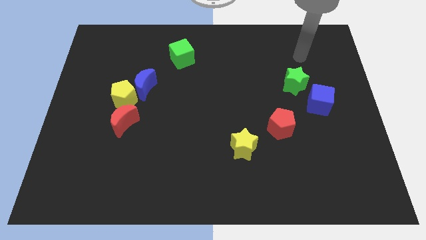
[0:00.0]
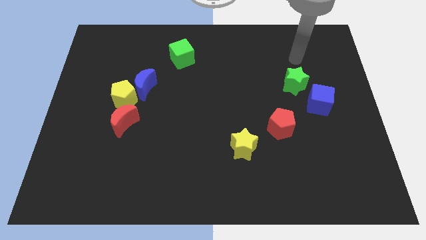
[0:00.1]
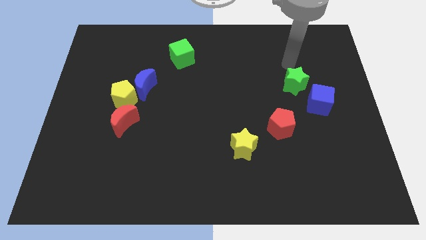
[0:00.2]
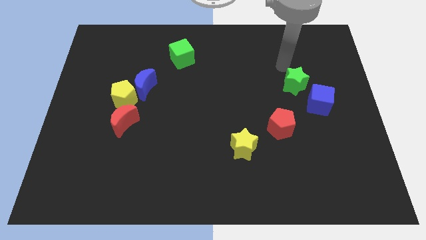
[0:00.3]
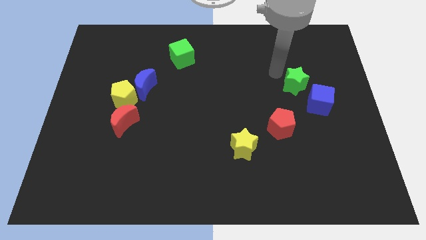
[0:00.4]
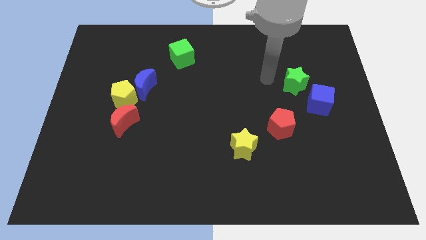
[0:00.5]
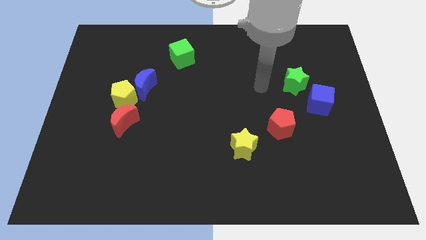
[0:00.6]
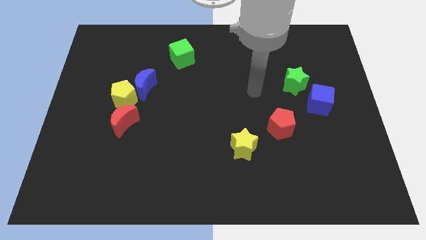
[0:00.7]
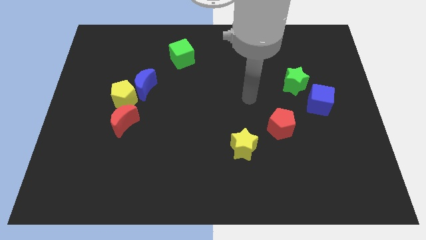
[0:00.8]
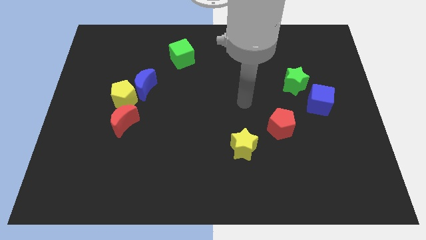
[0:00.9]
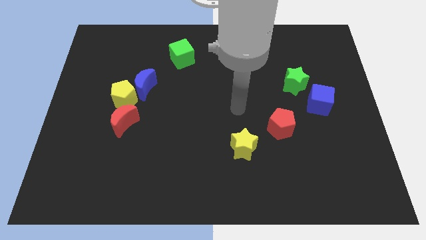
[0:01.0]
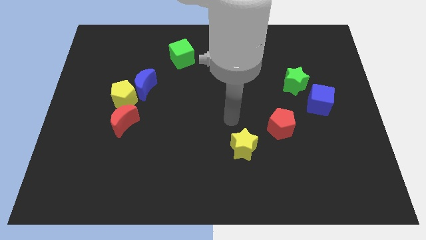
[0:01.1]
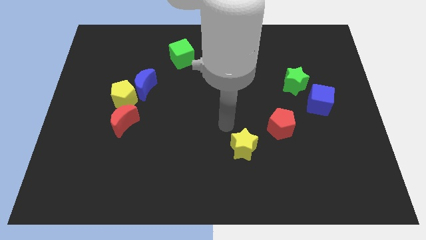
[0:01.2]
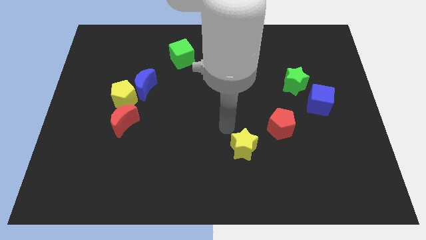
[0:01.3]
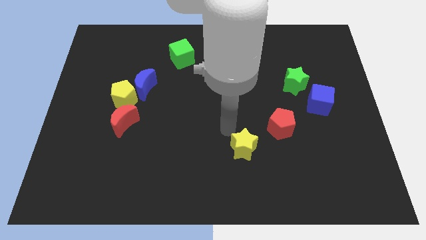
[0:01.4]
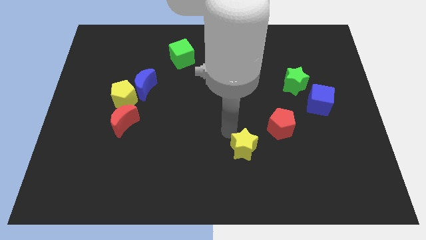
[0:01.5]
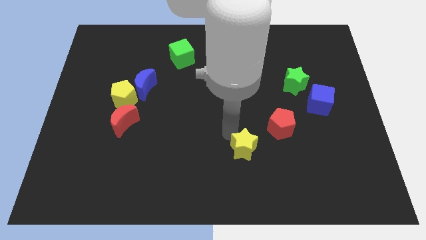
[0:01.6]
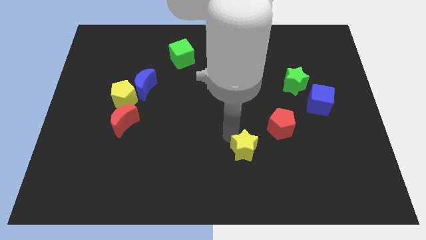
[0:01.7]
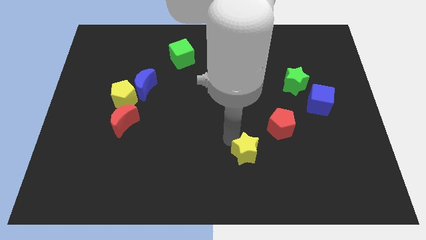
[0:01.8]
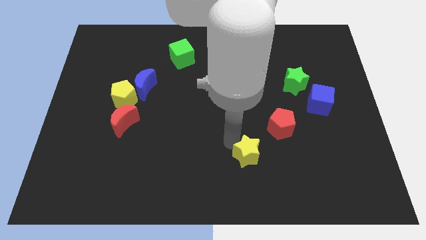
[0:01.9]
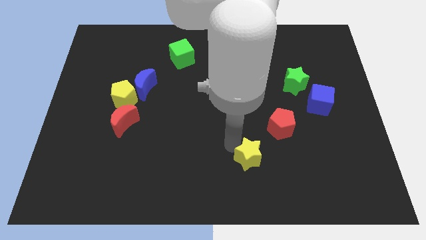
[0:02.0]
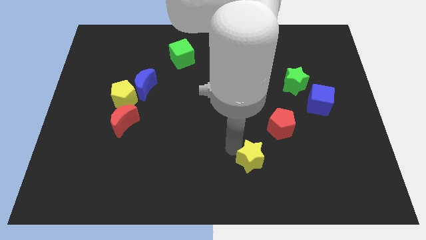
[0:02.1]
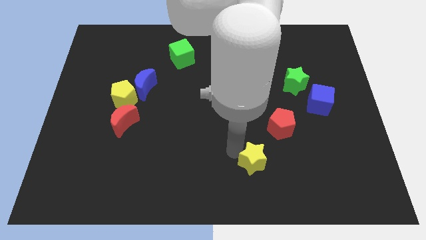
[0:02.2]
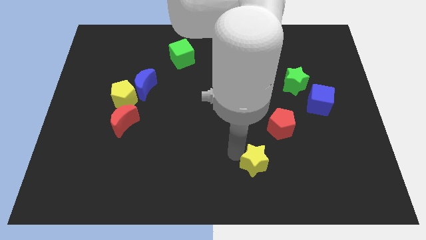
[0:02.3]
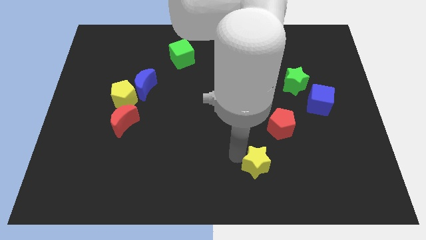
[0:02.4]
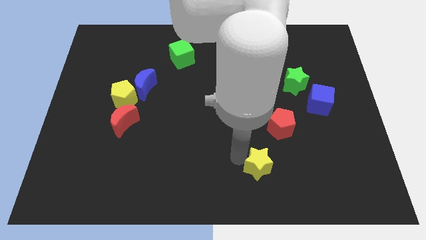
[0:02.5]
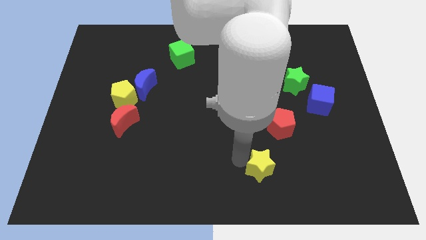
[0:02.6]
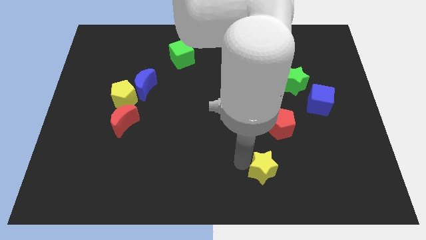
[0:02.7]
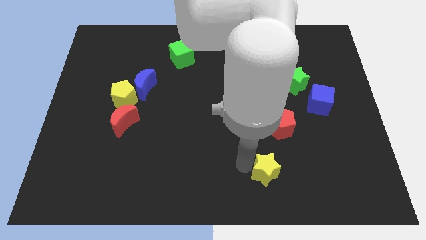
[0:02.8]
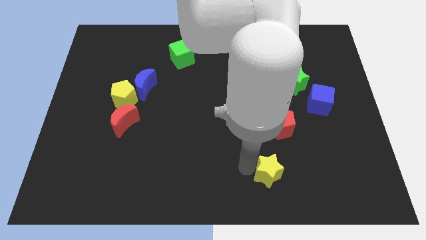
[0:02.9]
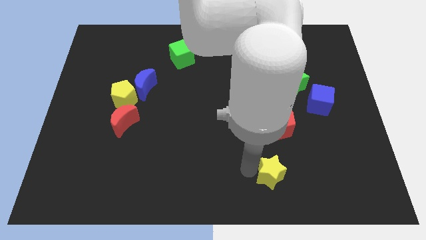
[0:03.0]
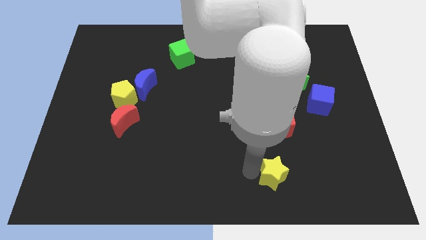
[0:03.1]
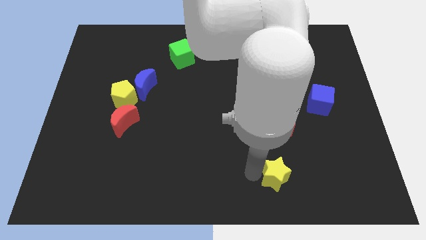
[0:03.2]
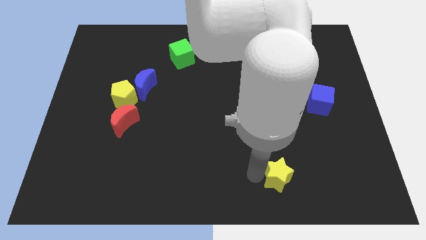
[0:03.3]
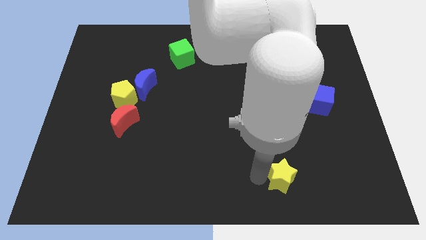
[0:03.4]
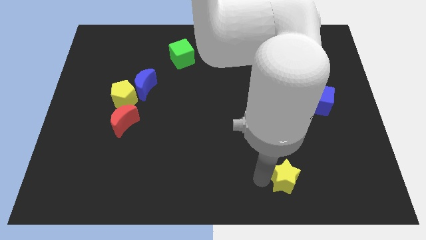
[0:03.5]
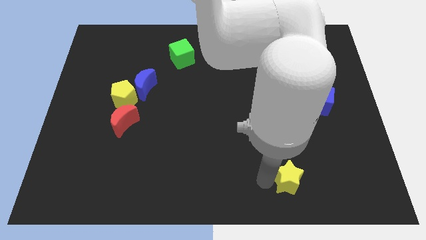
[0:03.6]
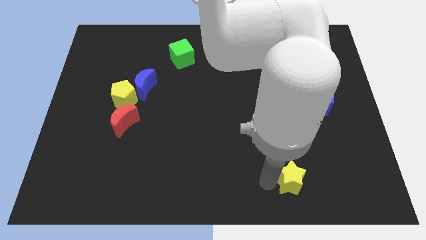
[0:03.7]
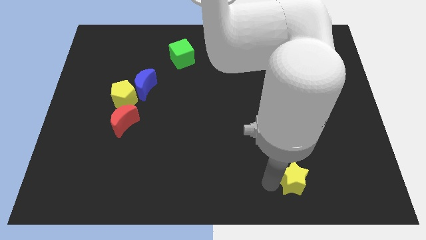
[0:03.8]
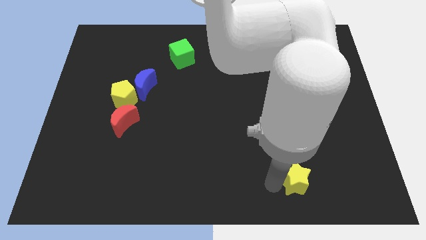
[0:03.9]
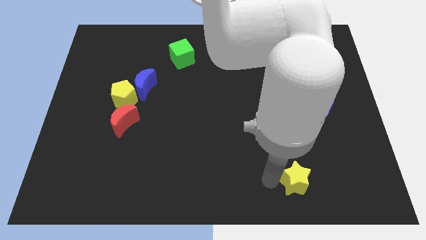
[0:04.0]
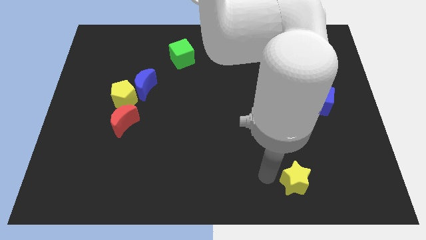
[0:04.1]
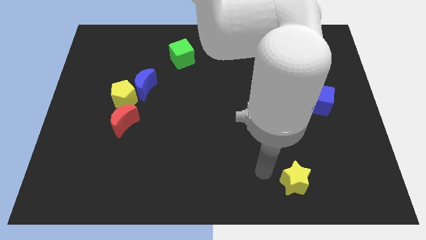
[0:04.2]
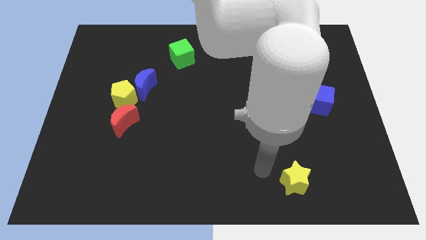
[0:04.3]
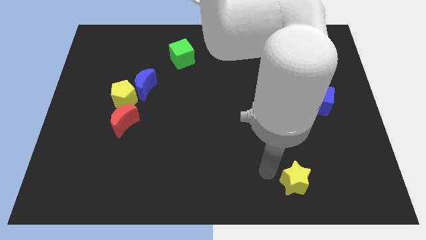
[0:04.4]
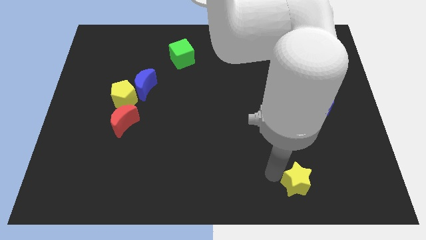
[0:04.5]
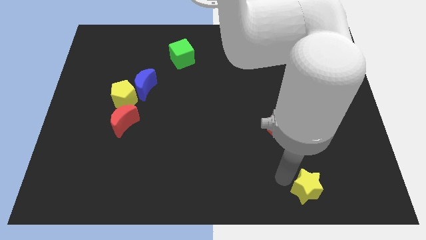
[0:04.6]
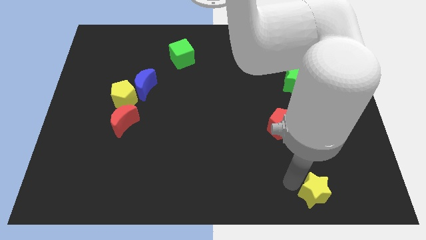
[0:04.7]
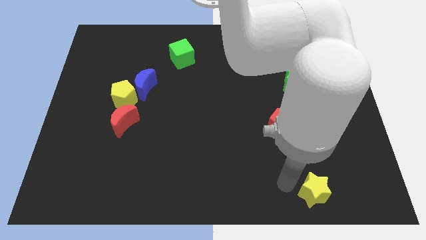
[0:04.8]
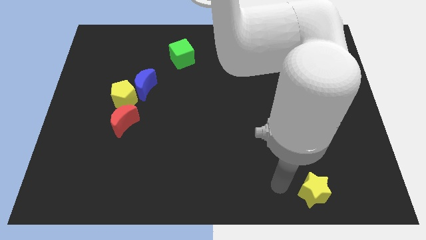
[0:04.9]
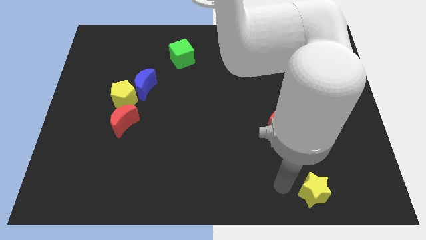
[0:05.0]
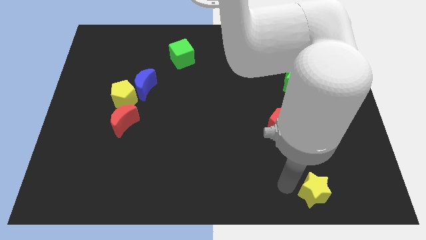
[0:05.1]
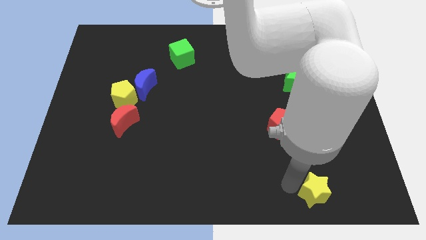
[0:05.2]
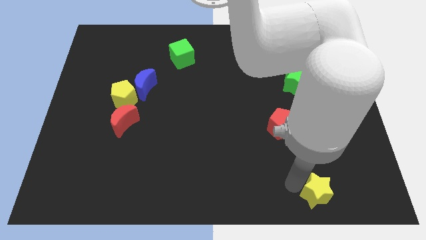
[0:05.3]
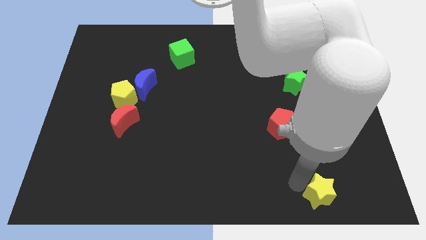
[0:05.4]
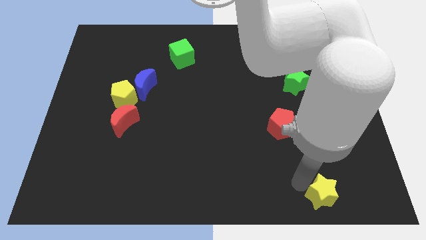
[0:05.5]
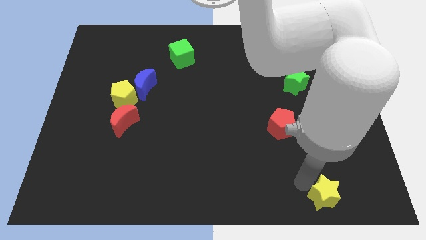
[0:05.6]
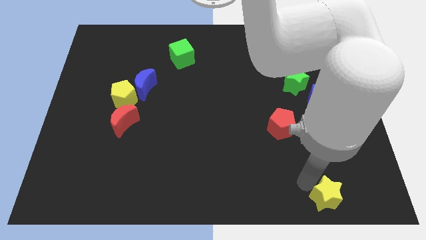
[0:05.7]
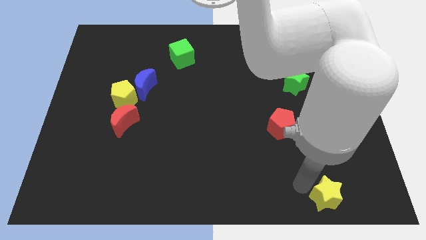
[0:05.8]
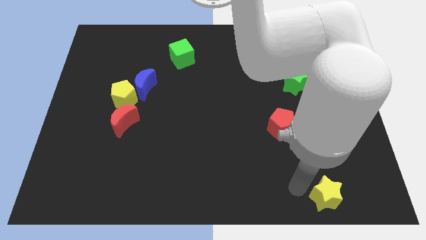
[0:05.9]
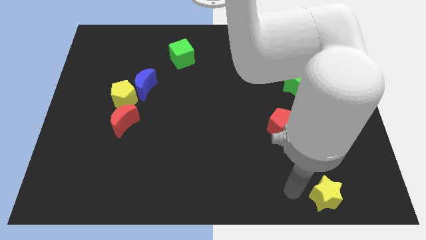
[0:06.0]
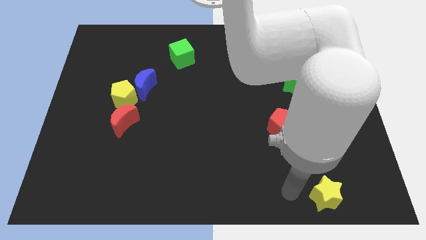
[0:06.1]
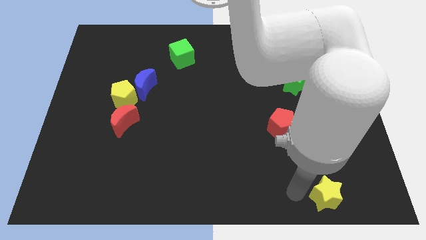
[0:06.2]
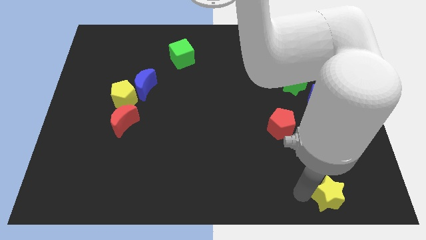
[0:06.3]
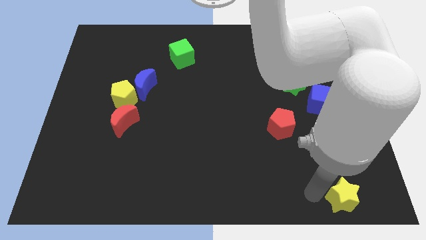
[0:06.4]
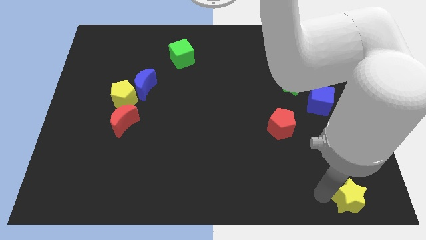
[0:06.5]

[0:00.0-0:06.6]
move the yellow star to the bottom right
